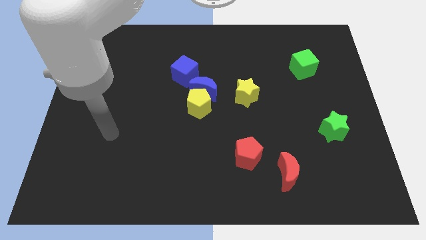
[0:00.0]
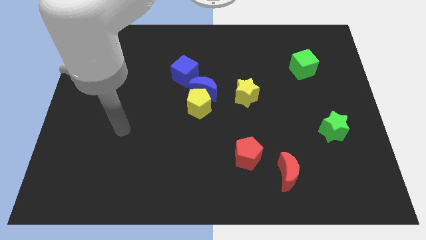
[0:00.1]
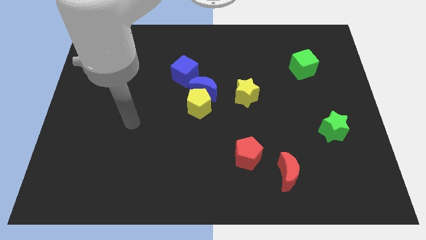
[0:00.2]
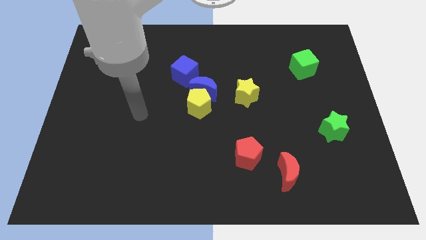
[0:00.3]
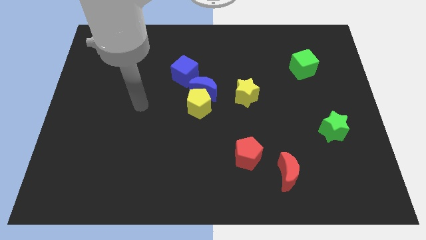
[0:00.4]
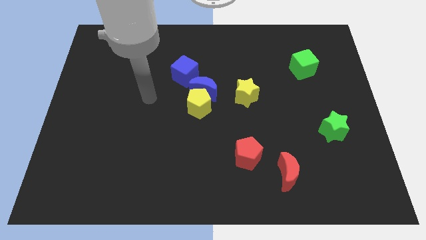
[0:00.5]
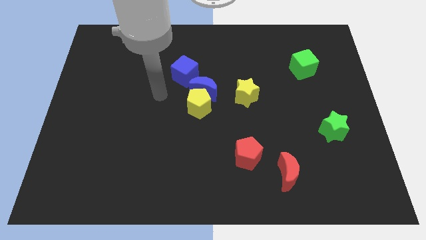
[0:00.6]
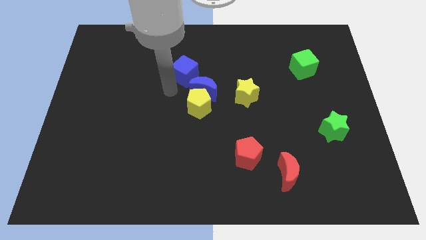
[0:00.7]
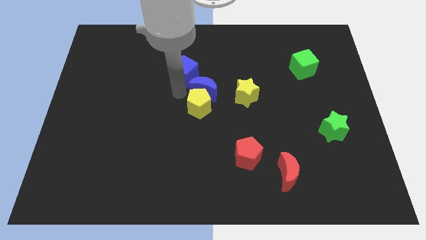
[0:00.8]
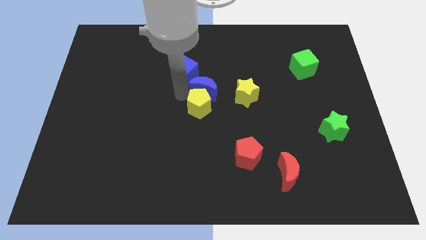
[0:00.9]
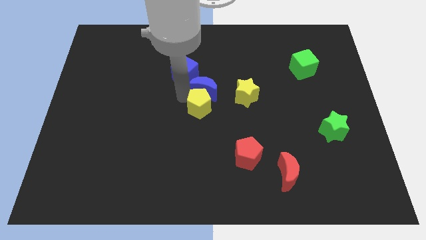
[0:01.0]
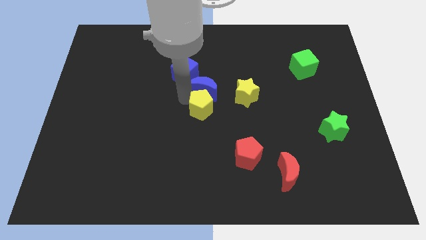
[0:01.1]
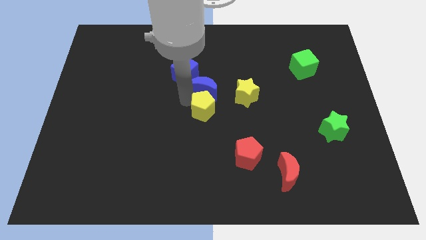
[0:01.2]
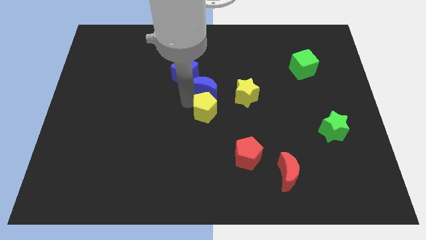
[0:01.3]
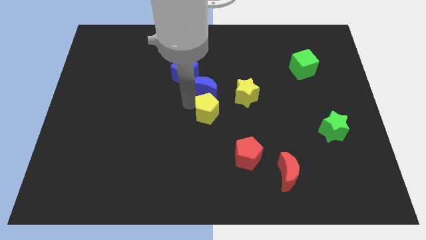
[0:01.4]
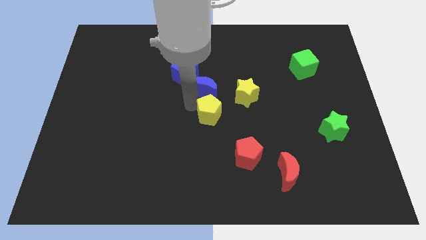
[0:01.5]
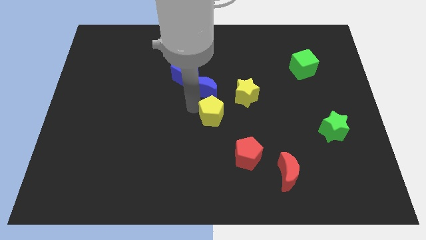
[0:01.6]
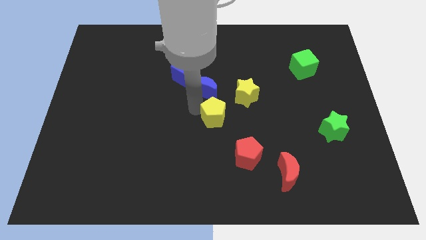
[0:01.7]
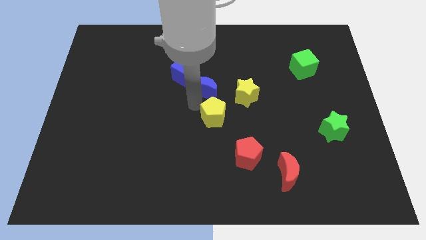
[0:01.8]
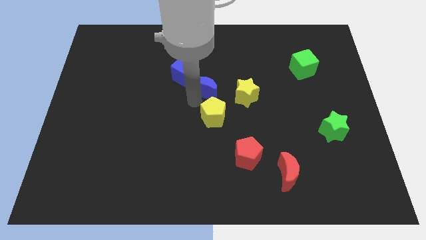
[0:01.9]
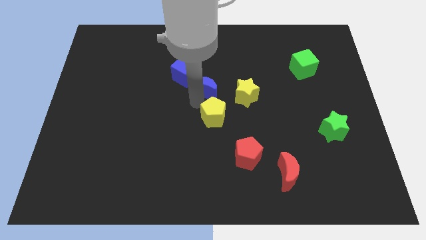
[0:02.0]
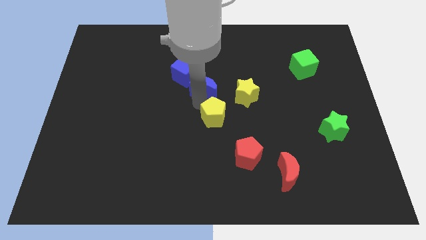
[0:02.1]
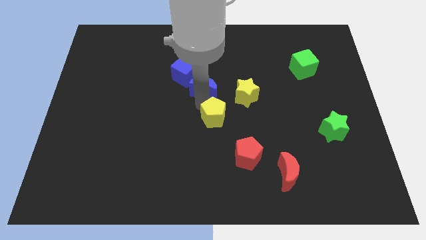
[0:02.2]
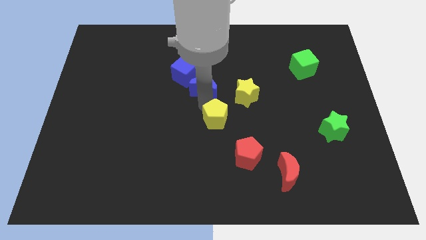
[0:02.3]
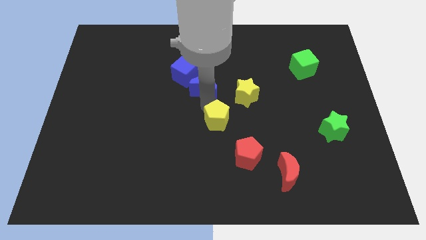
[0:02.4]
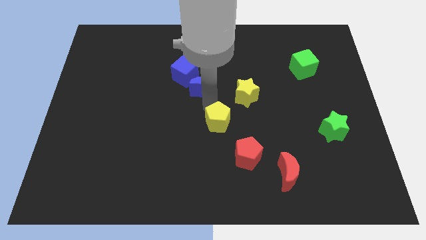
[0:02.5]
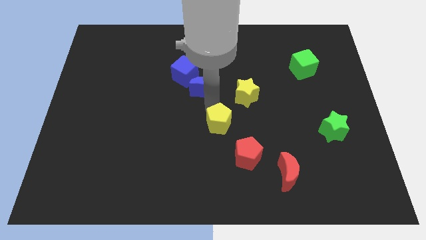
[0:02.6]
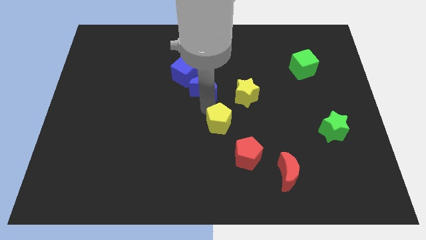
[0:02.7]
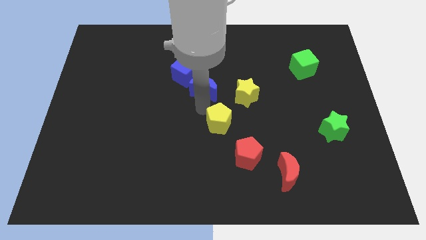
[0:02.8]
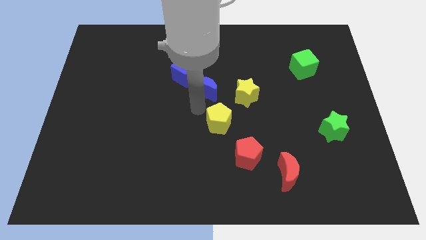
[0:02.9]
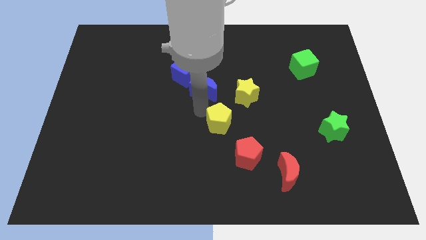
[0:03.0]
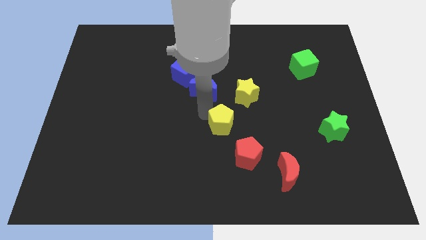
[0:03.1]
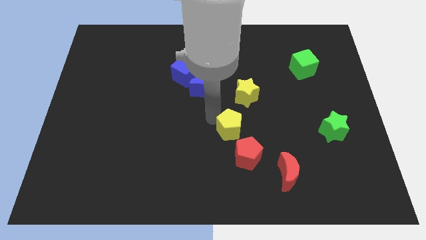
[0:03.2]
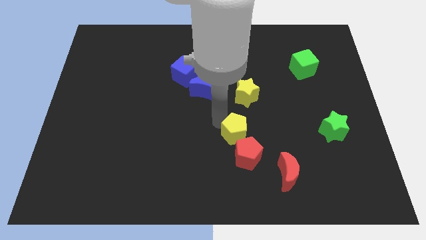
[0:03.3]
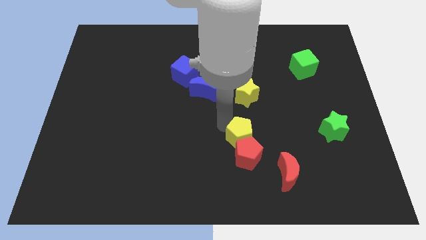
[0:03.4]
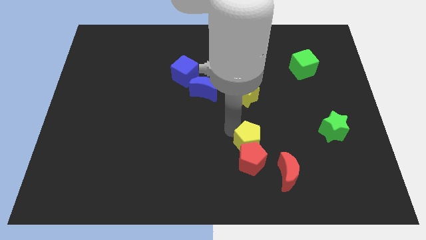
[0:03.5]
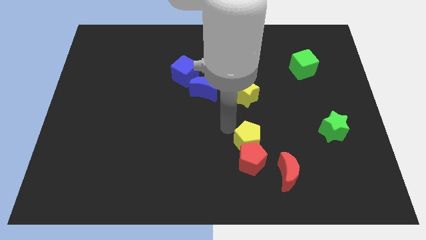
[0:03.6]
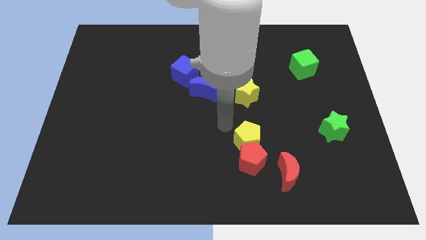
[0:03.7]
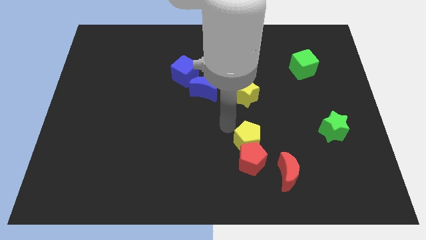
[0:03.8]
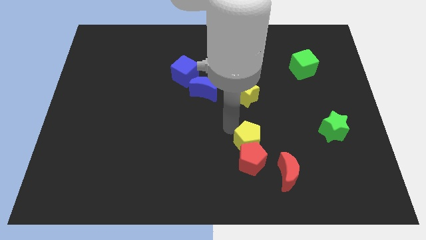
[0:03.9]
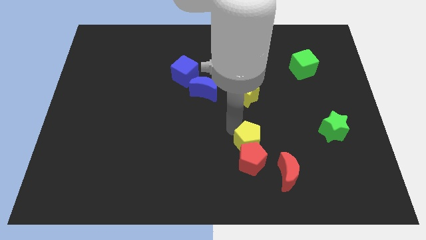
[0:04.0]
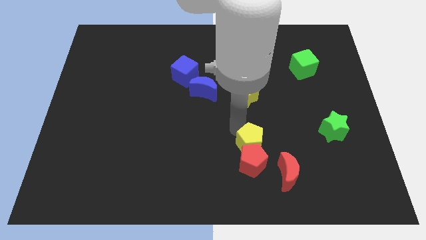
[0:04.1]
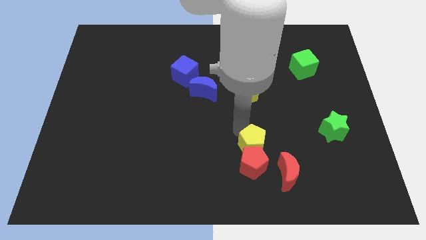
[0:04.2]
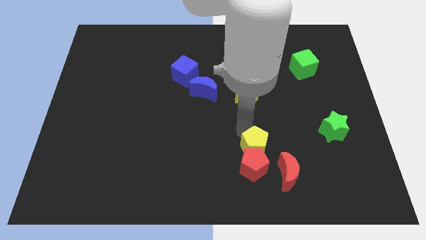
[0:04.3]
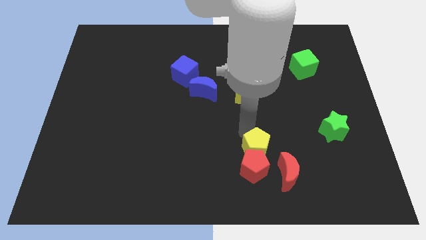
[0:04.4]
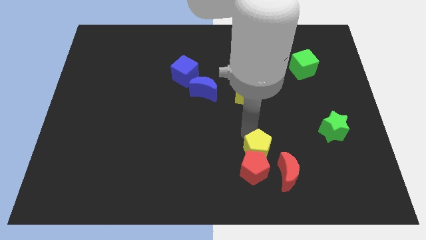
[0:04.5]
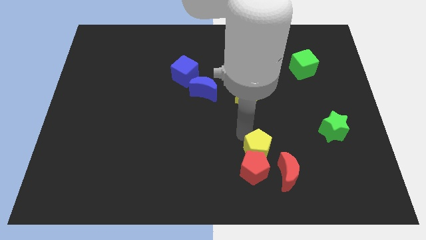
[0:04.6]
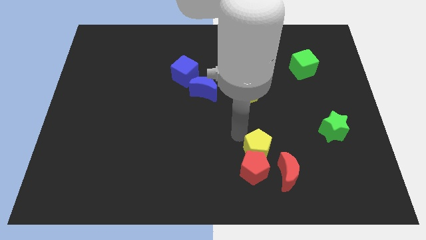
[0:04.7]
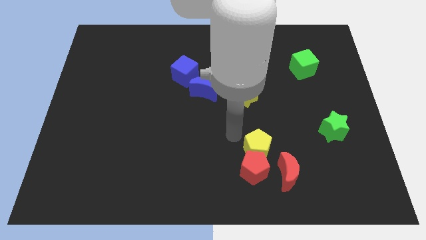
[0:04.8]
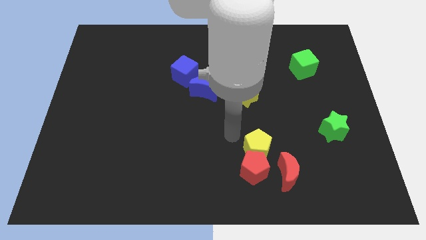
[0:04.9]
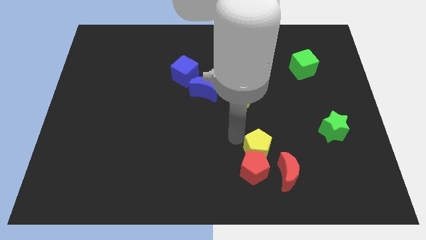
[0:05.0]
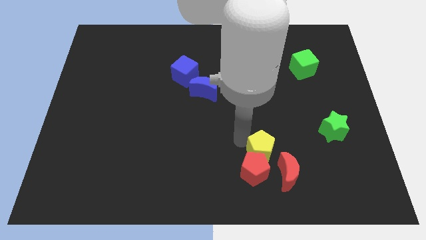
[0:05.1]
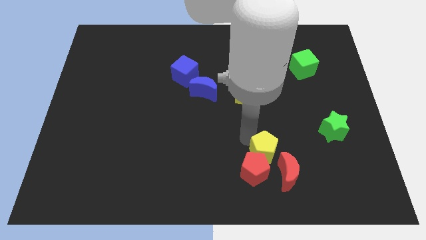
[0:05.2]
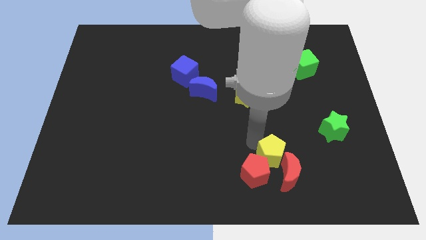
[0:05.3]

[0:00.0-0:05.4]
put the yellow pentagon towards the red moon

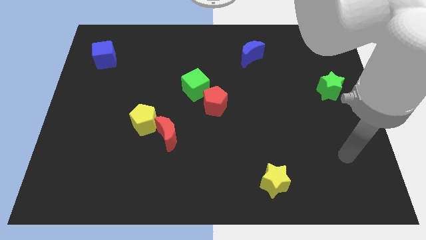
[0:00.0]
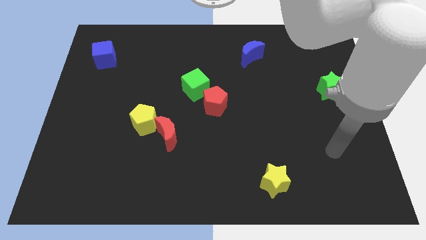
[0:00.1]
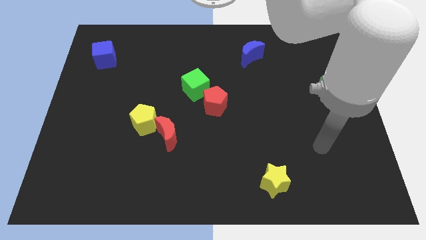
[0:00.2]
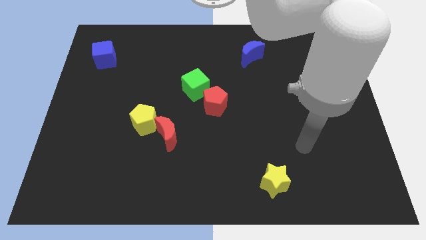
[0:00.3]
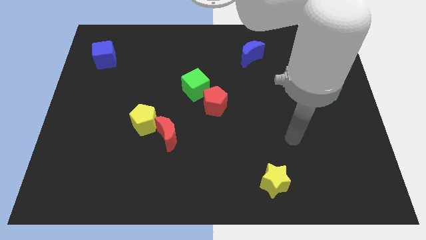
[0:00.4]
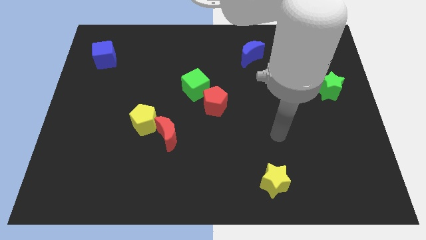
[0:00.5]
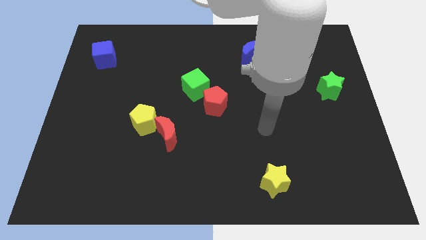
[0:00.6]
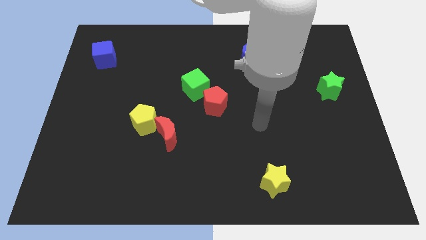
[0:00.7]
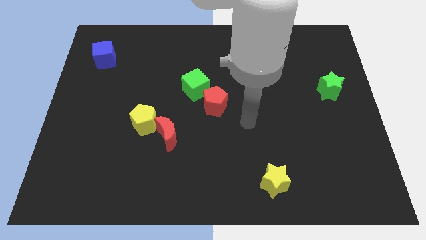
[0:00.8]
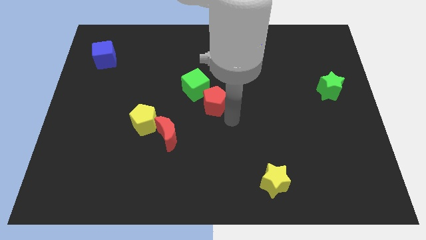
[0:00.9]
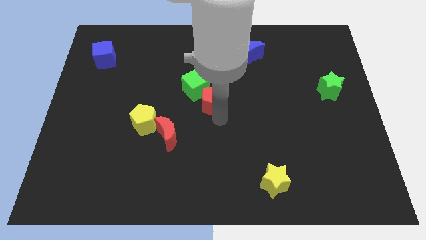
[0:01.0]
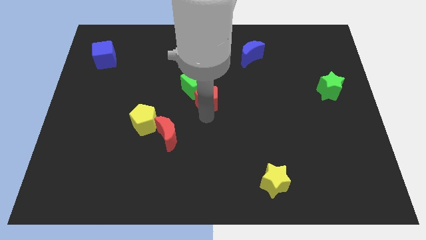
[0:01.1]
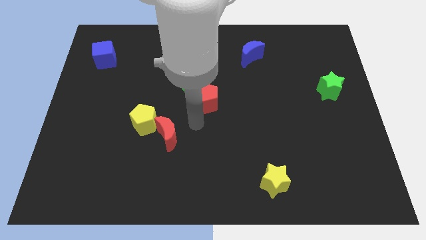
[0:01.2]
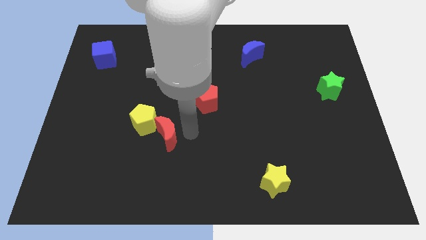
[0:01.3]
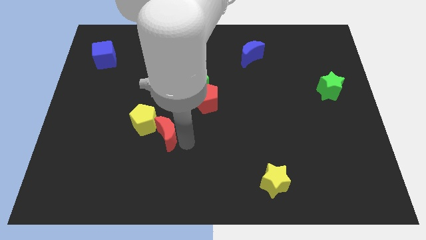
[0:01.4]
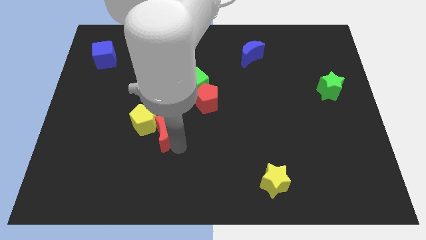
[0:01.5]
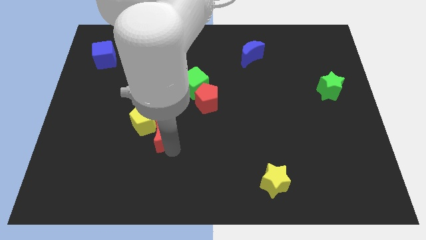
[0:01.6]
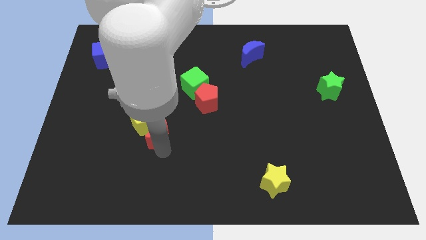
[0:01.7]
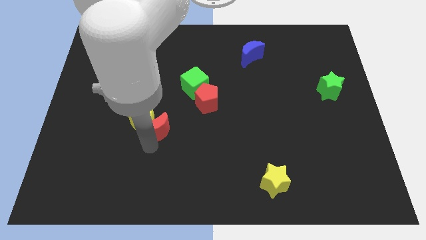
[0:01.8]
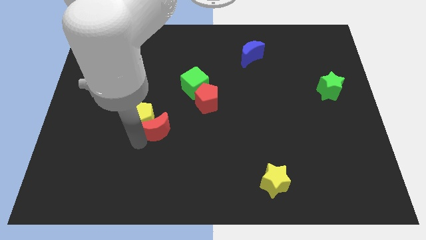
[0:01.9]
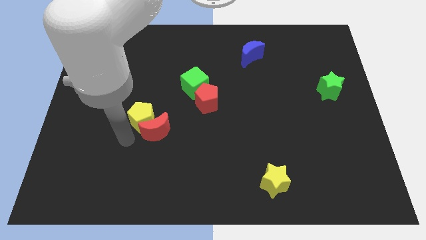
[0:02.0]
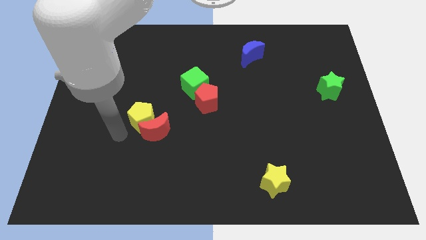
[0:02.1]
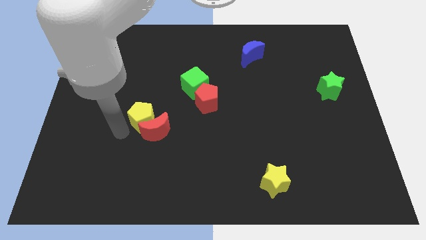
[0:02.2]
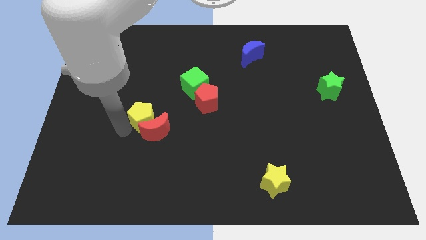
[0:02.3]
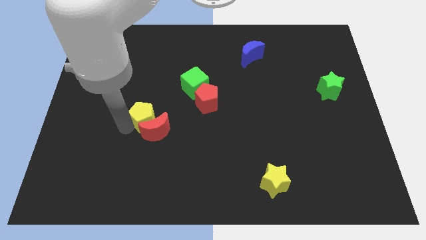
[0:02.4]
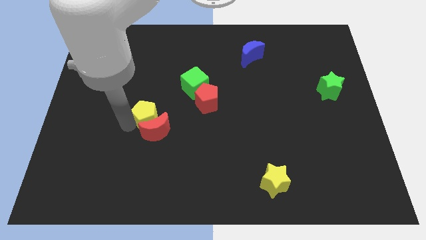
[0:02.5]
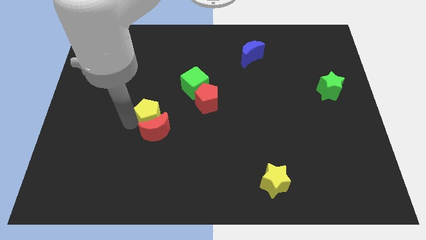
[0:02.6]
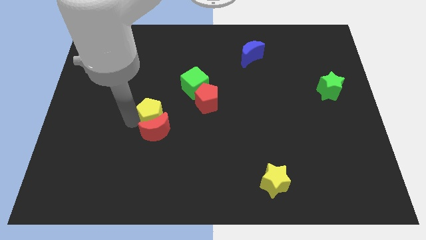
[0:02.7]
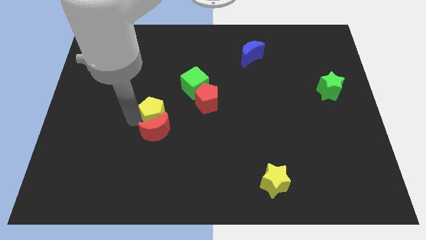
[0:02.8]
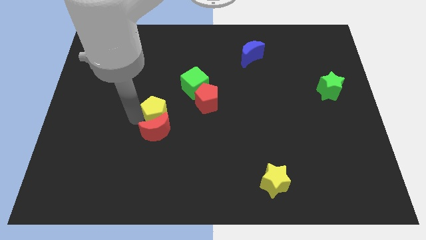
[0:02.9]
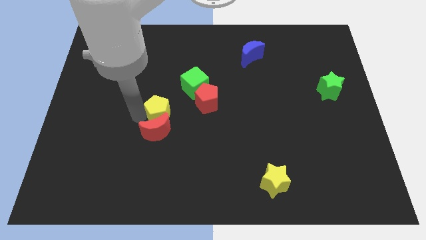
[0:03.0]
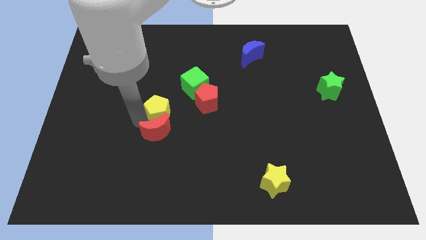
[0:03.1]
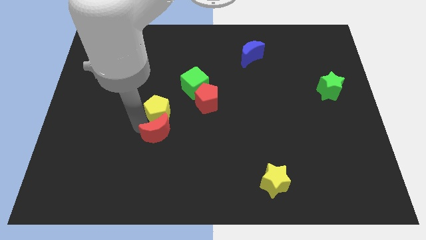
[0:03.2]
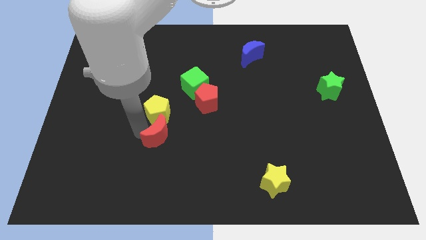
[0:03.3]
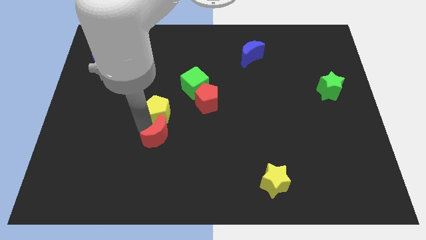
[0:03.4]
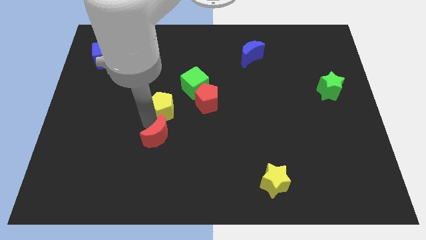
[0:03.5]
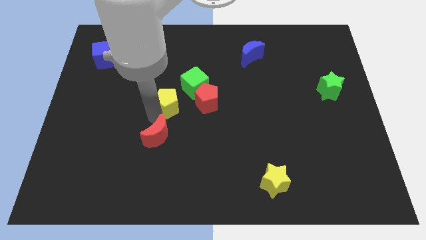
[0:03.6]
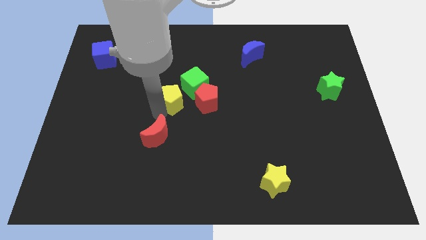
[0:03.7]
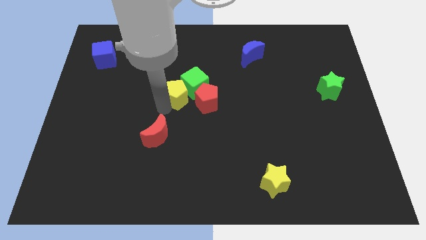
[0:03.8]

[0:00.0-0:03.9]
move the yellow pentagon next to the green cube
